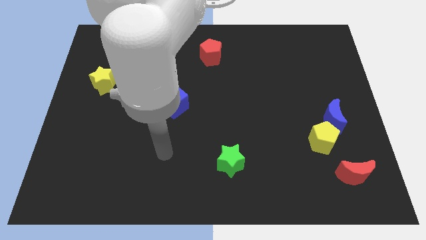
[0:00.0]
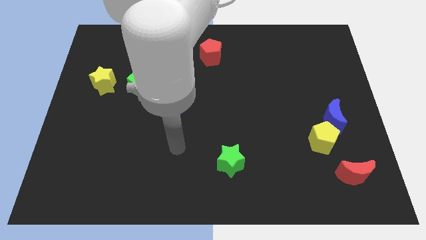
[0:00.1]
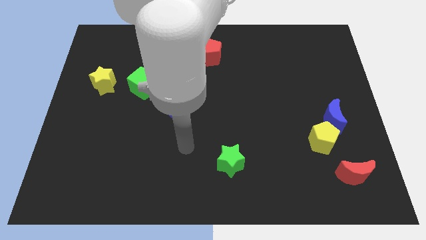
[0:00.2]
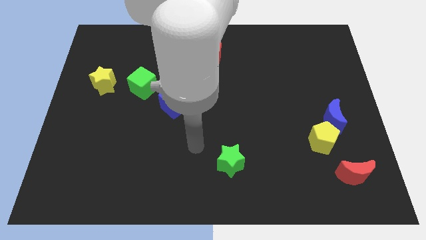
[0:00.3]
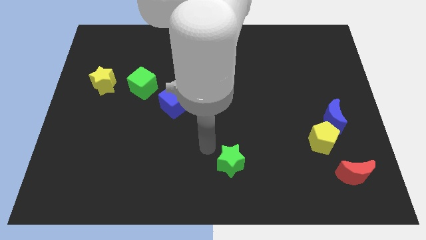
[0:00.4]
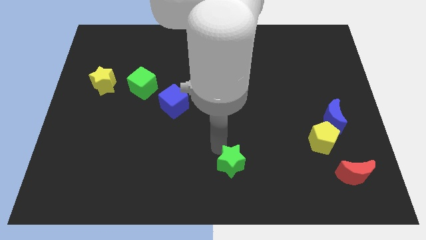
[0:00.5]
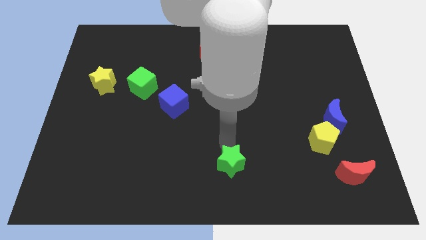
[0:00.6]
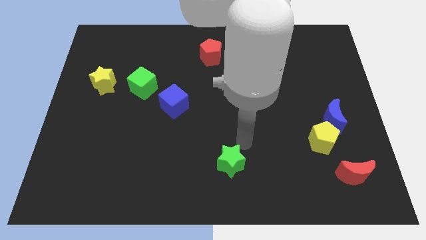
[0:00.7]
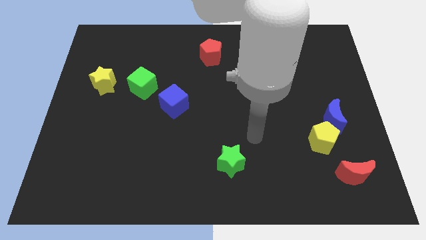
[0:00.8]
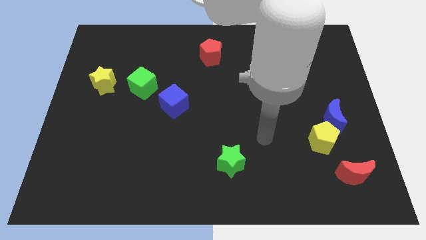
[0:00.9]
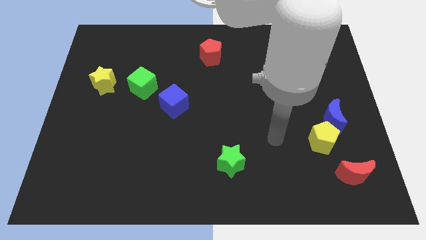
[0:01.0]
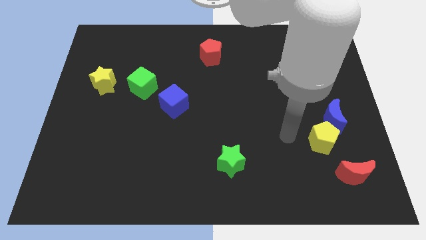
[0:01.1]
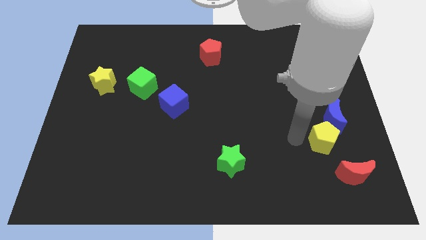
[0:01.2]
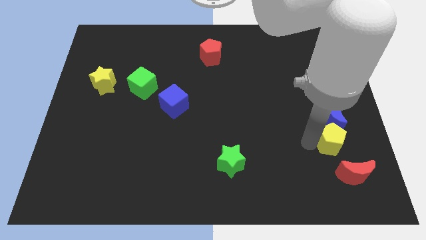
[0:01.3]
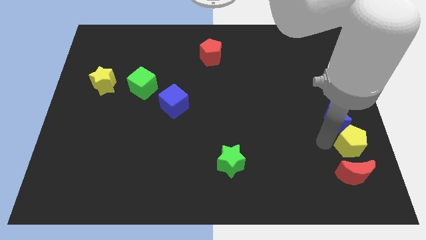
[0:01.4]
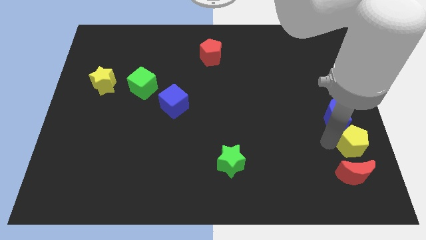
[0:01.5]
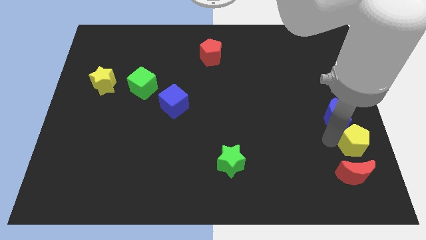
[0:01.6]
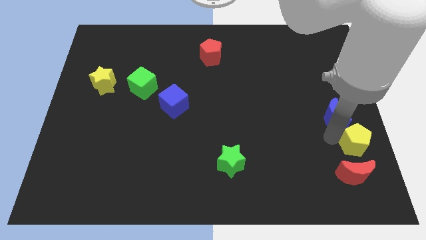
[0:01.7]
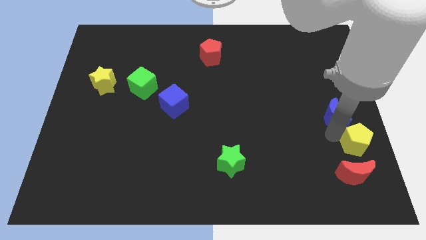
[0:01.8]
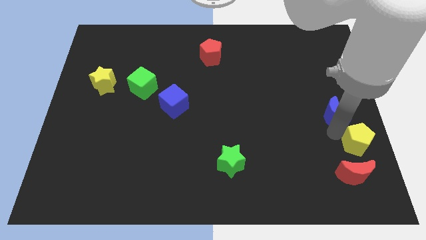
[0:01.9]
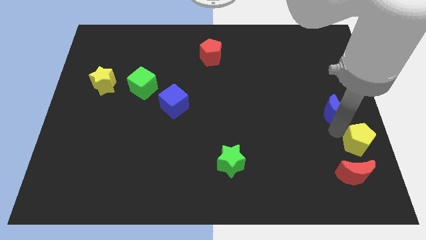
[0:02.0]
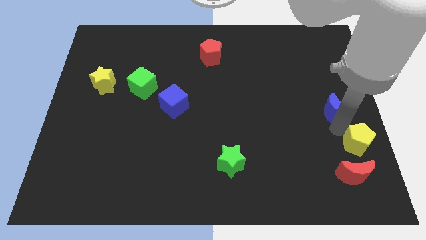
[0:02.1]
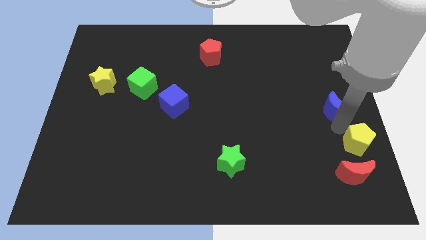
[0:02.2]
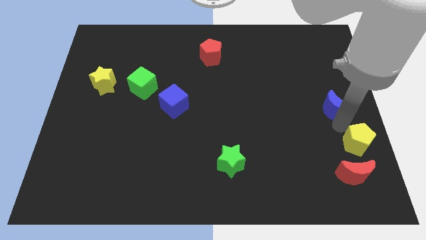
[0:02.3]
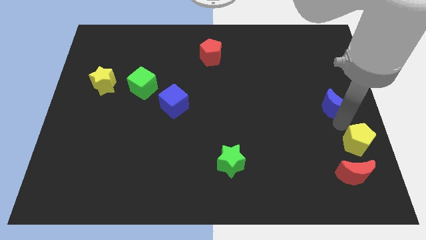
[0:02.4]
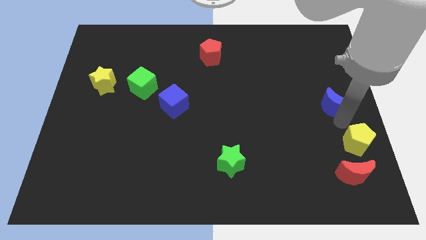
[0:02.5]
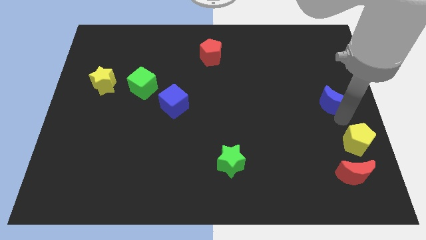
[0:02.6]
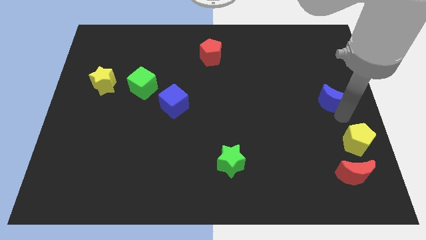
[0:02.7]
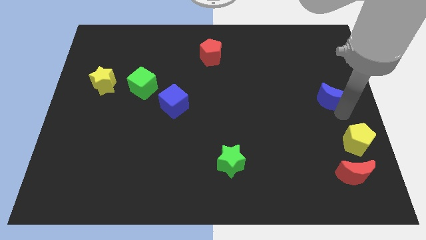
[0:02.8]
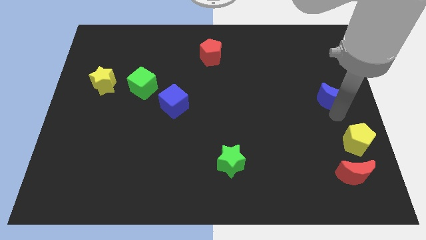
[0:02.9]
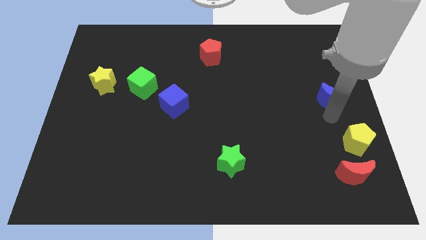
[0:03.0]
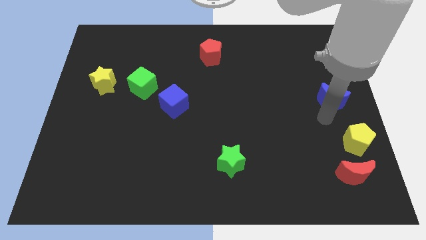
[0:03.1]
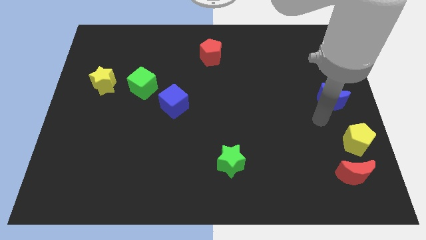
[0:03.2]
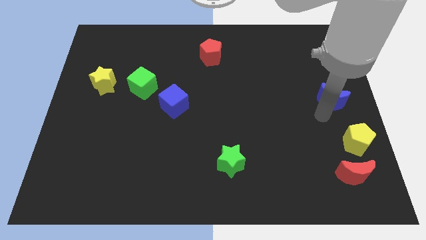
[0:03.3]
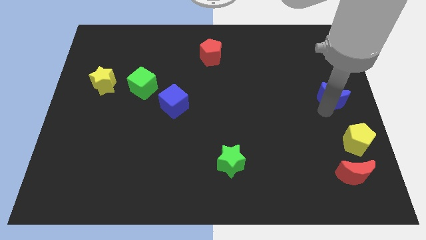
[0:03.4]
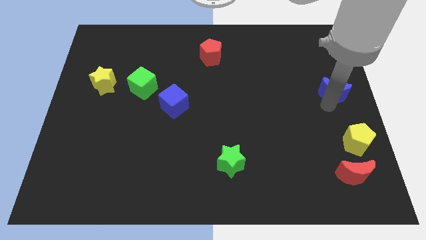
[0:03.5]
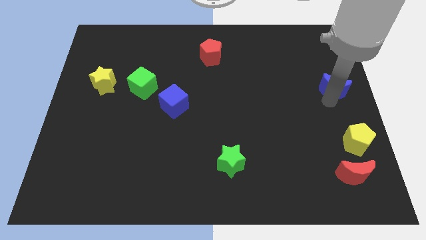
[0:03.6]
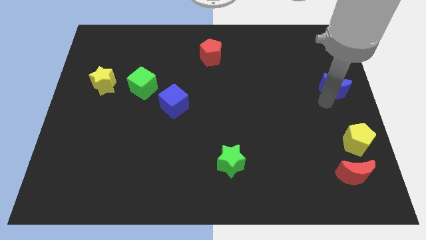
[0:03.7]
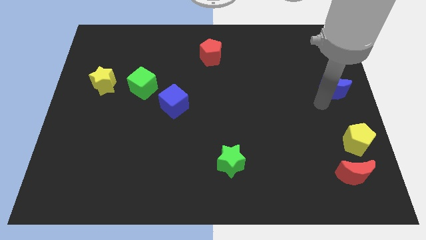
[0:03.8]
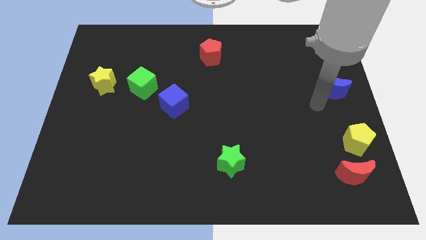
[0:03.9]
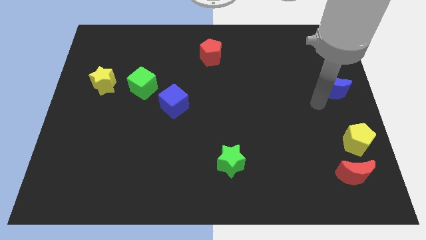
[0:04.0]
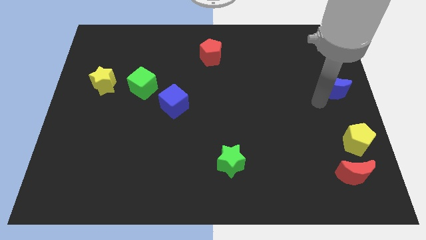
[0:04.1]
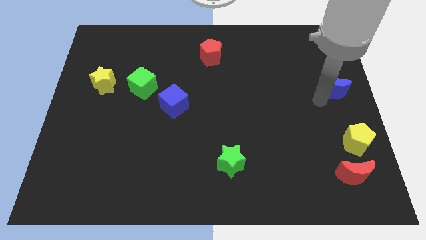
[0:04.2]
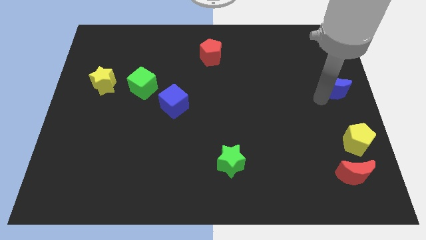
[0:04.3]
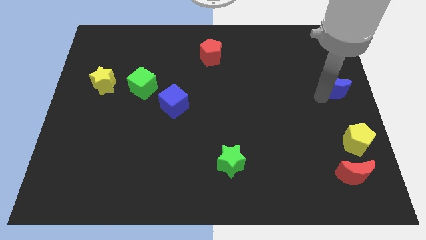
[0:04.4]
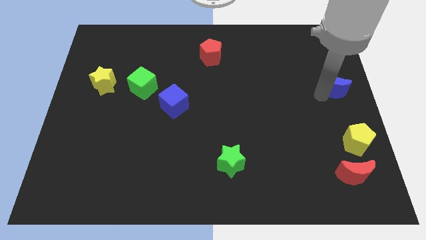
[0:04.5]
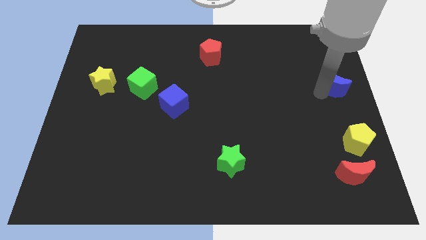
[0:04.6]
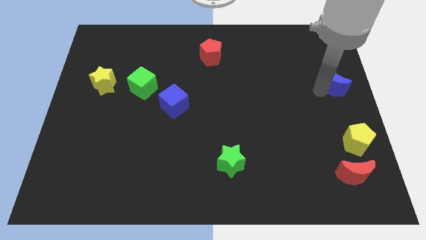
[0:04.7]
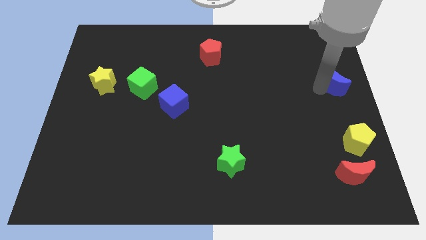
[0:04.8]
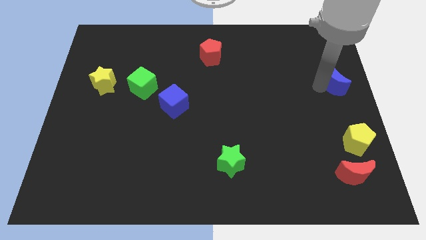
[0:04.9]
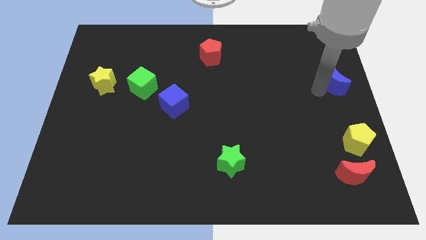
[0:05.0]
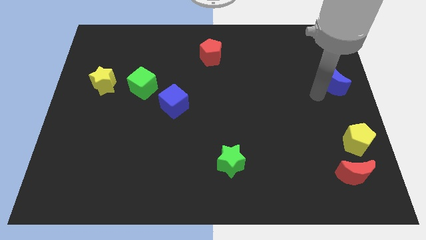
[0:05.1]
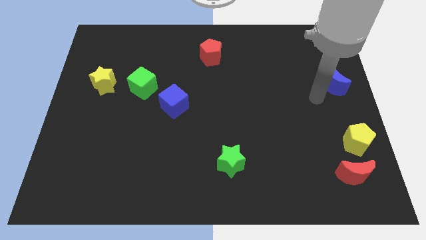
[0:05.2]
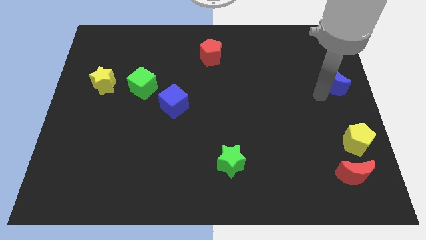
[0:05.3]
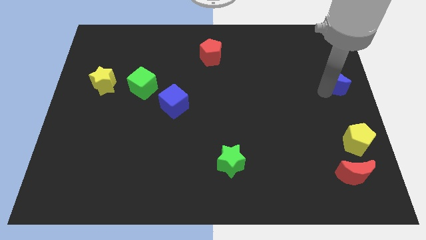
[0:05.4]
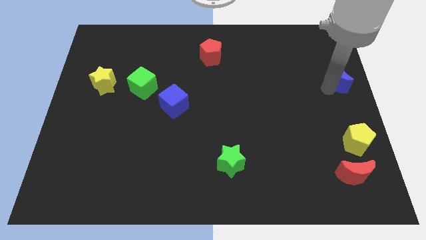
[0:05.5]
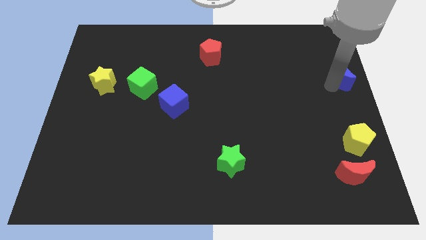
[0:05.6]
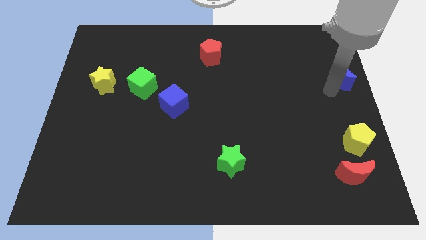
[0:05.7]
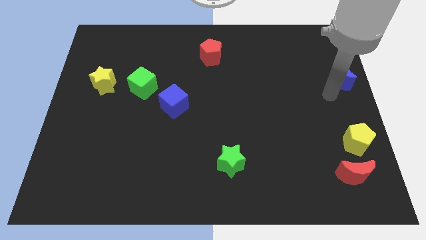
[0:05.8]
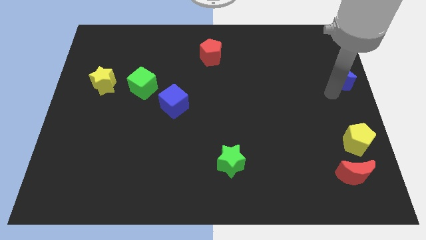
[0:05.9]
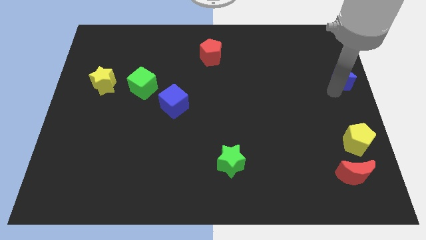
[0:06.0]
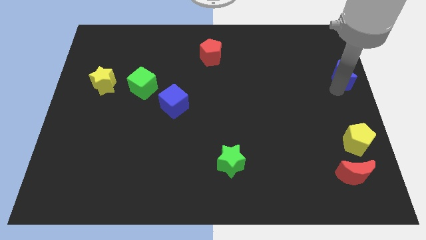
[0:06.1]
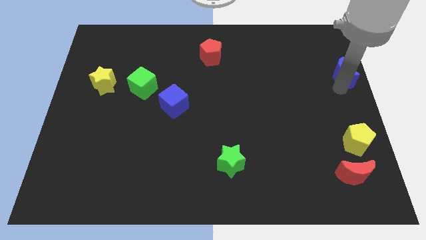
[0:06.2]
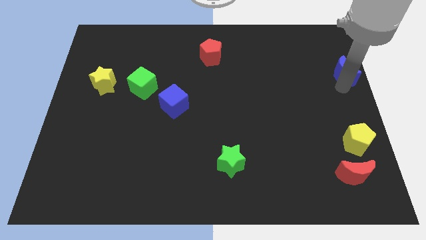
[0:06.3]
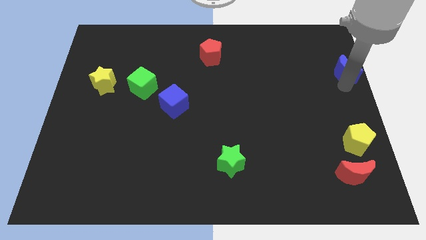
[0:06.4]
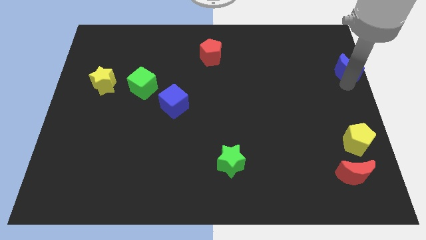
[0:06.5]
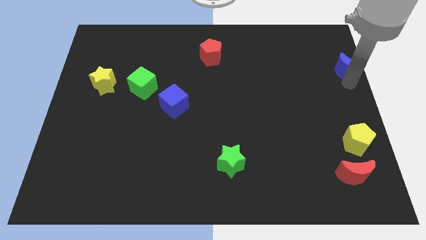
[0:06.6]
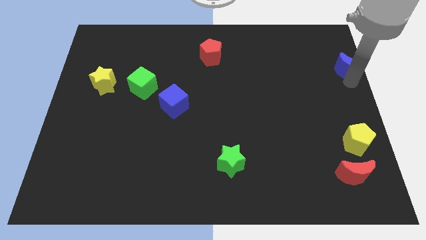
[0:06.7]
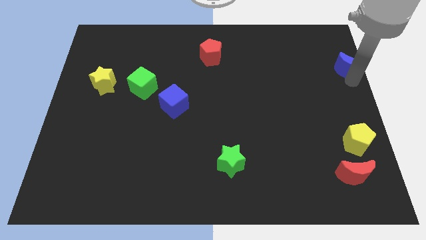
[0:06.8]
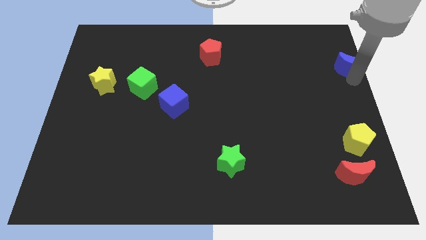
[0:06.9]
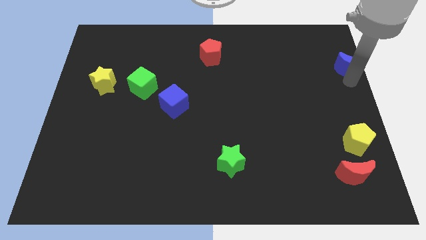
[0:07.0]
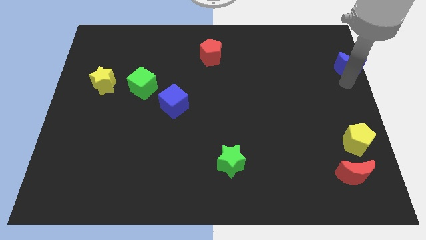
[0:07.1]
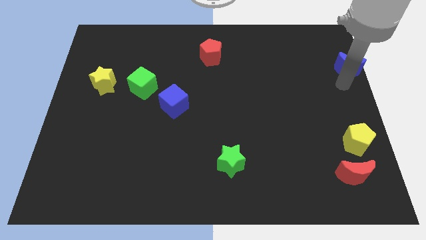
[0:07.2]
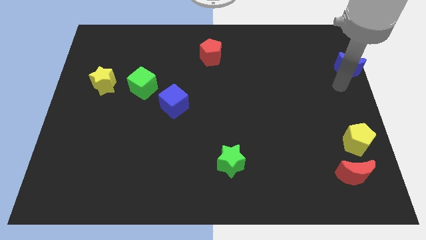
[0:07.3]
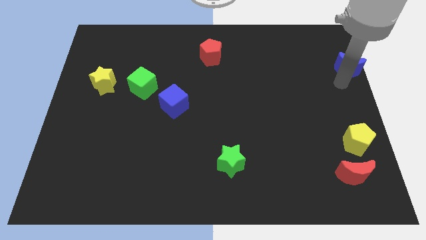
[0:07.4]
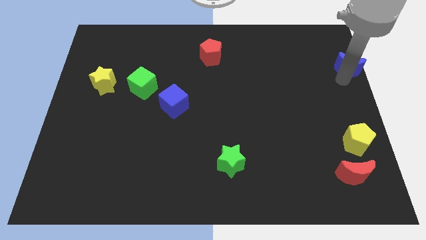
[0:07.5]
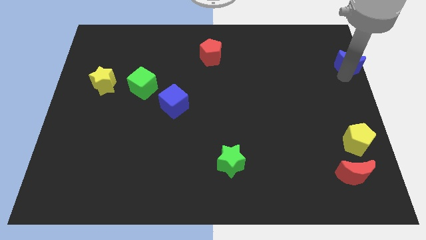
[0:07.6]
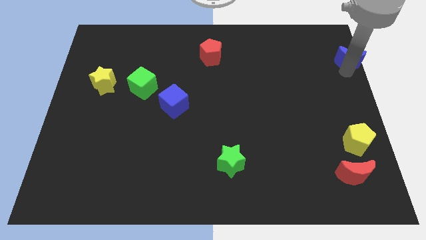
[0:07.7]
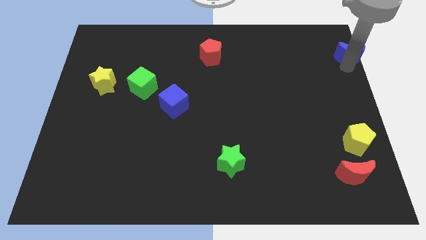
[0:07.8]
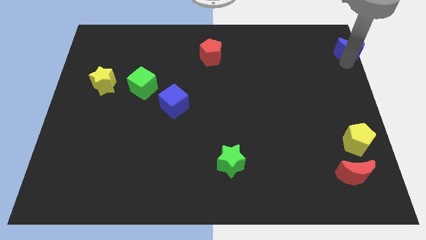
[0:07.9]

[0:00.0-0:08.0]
slide the blue moon to the top right corner
